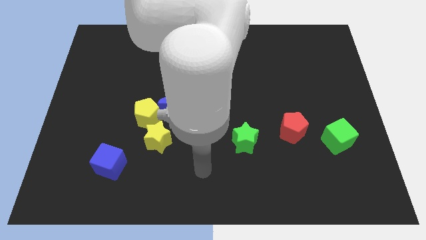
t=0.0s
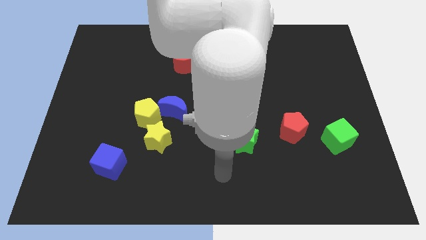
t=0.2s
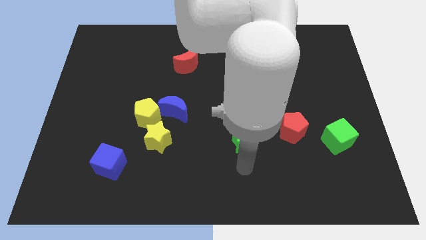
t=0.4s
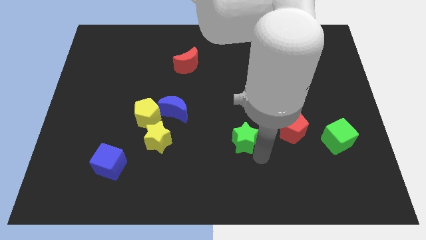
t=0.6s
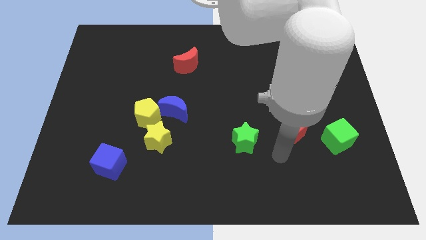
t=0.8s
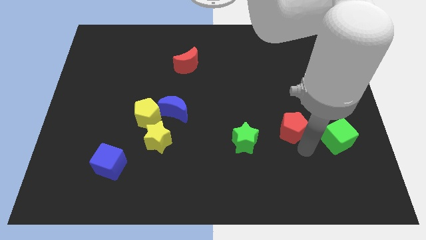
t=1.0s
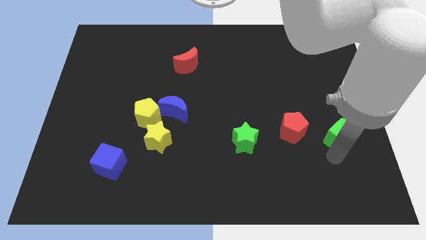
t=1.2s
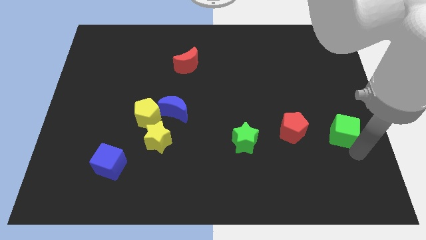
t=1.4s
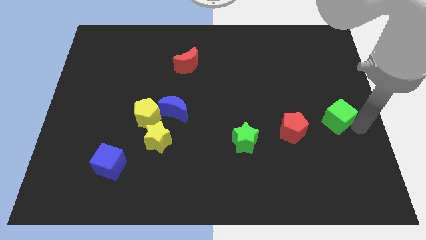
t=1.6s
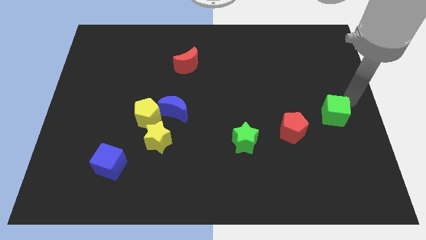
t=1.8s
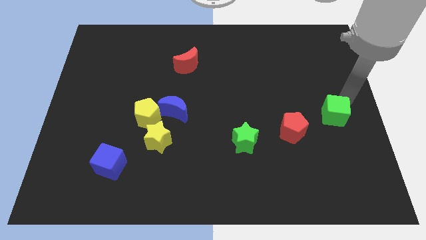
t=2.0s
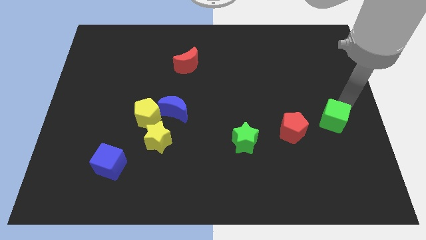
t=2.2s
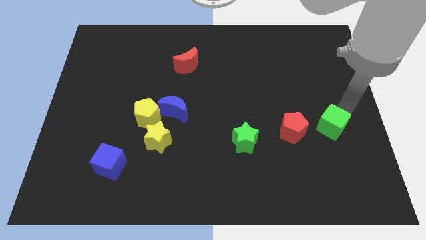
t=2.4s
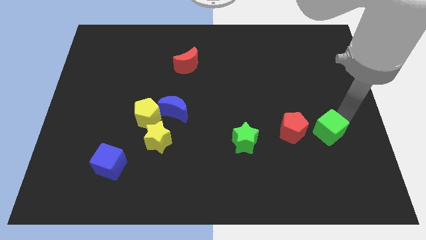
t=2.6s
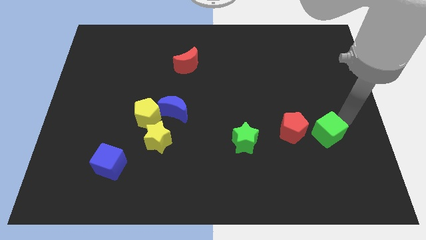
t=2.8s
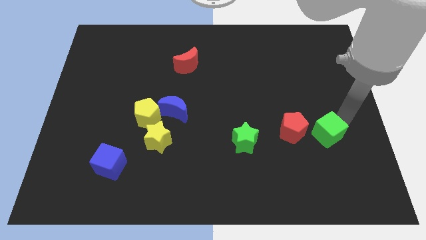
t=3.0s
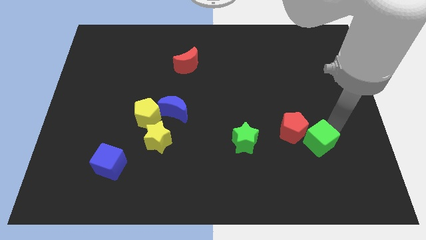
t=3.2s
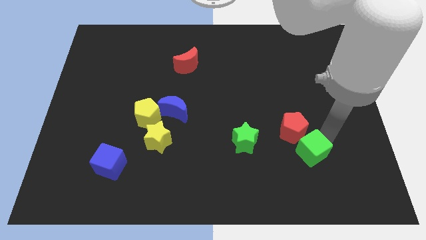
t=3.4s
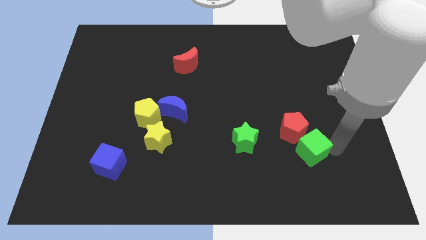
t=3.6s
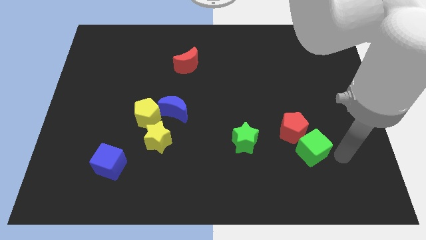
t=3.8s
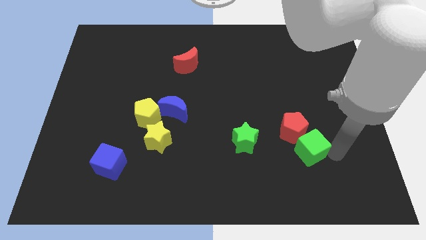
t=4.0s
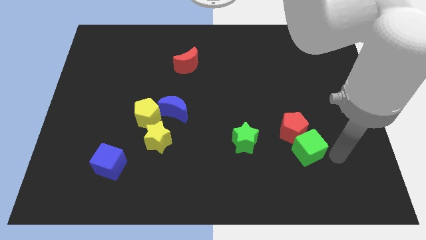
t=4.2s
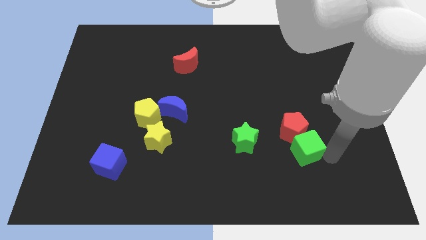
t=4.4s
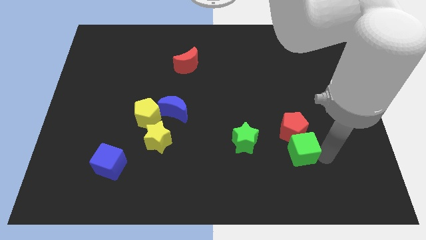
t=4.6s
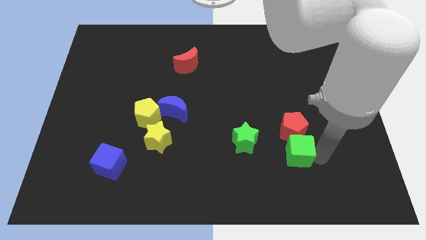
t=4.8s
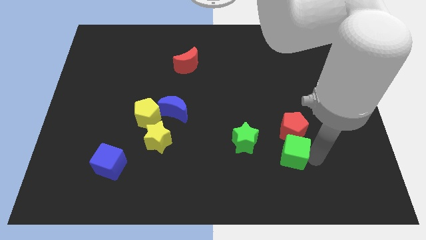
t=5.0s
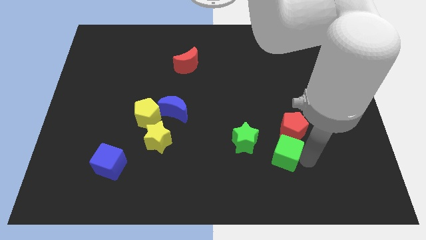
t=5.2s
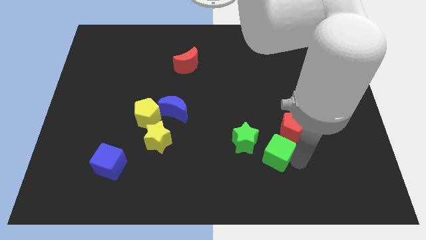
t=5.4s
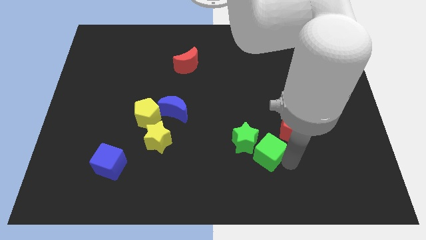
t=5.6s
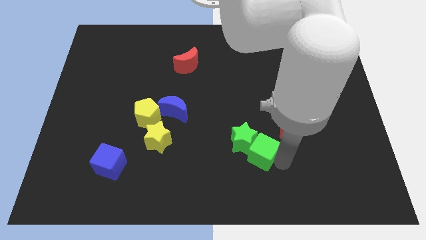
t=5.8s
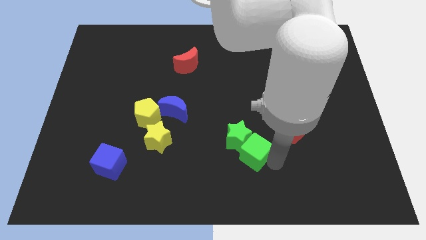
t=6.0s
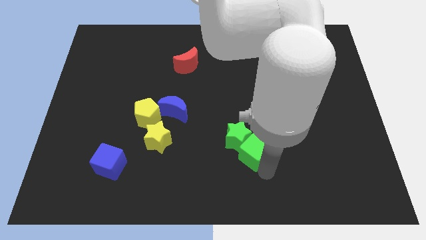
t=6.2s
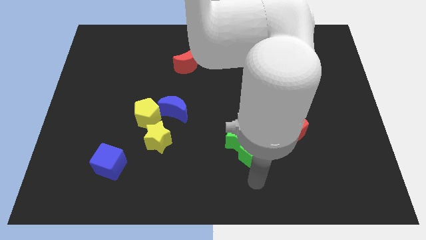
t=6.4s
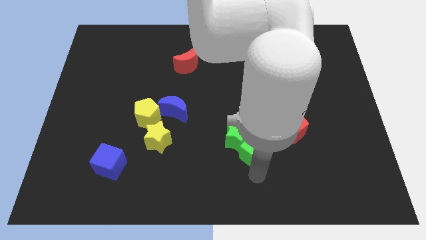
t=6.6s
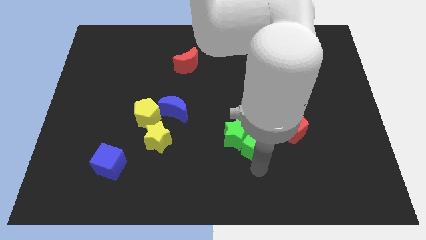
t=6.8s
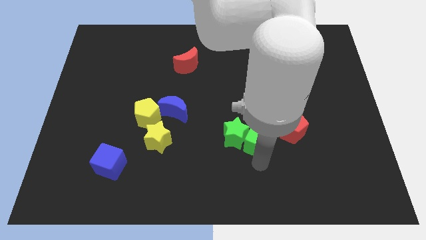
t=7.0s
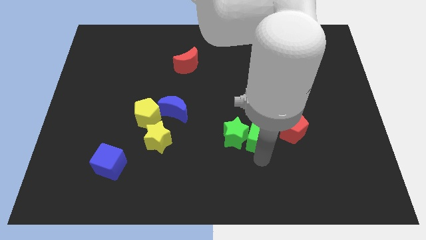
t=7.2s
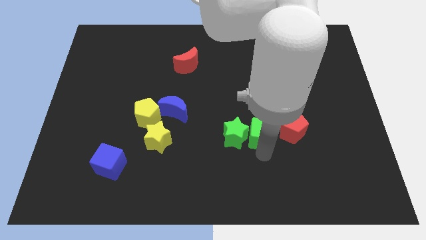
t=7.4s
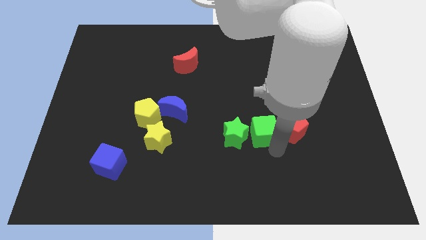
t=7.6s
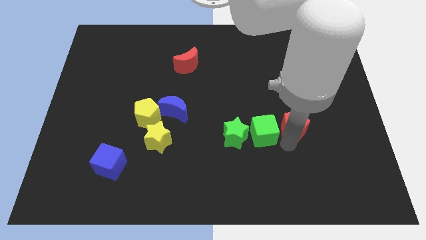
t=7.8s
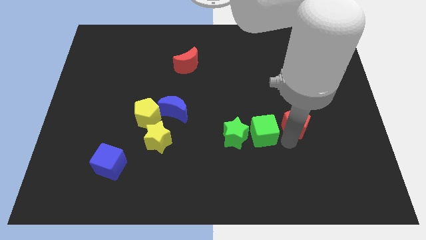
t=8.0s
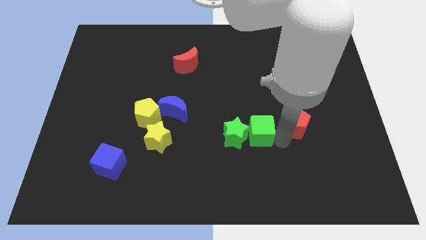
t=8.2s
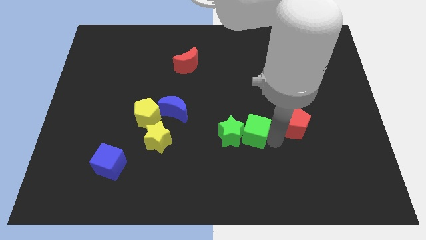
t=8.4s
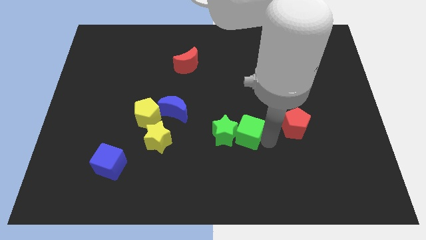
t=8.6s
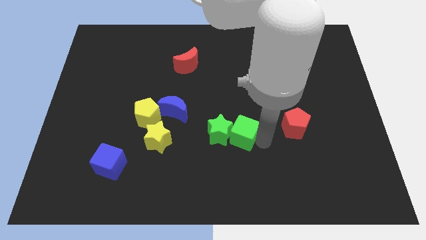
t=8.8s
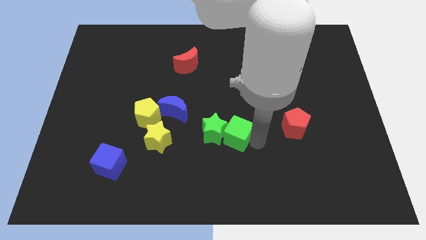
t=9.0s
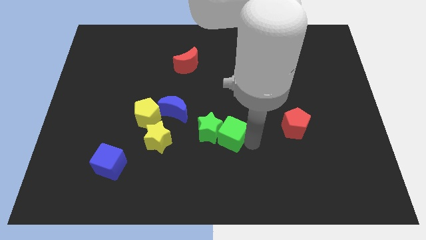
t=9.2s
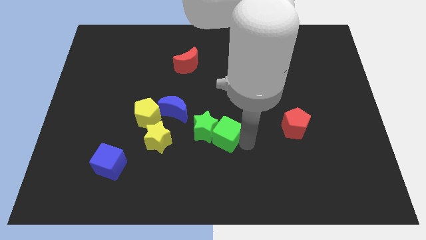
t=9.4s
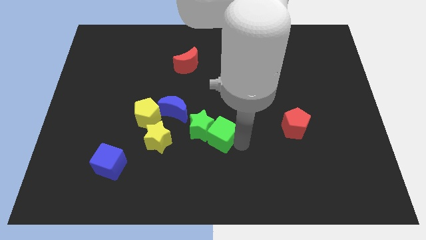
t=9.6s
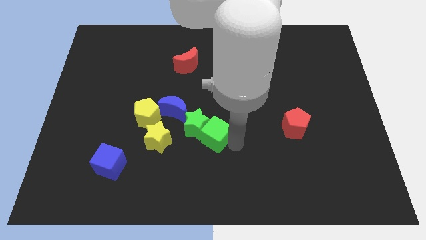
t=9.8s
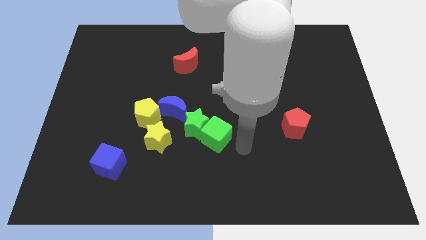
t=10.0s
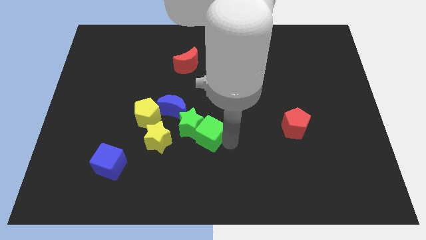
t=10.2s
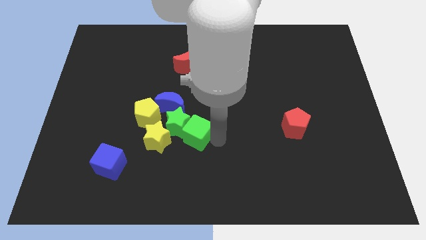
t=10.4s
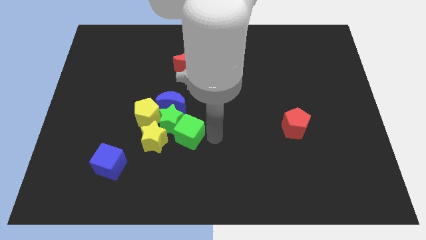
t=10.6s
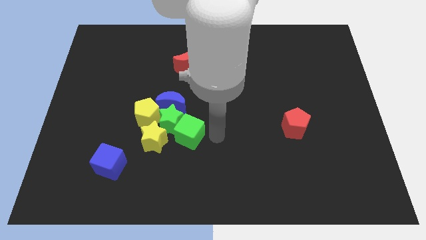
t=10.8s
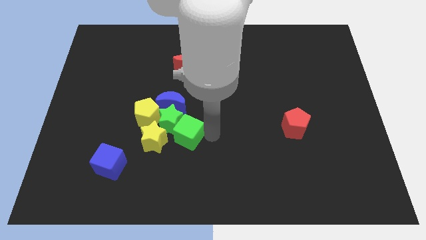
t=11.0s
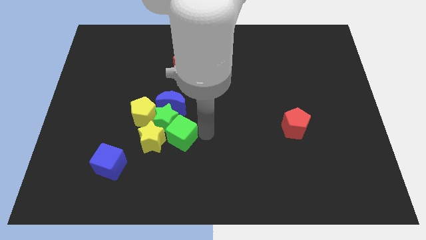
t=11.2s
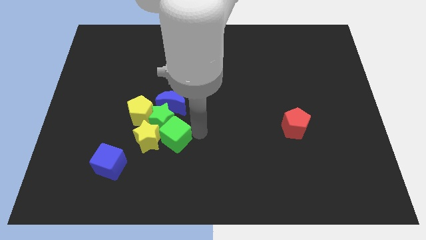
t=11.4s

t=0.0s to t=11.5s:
put the green cube to the yellow star

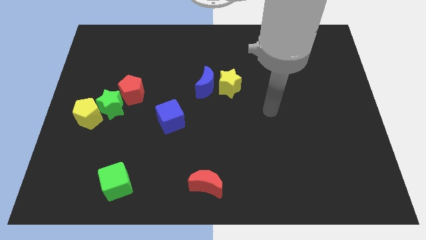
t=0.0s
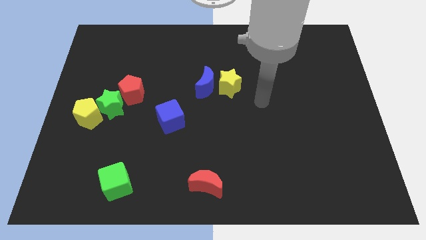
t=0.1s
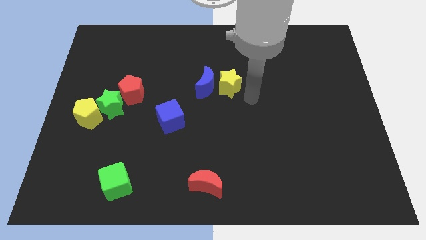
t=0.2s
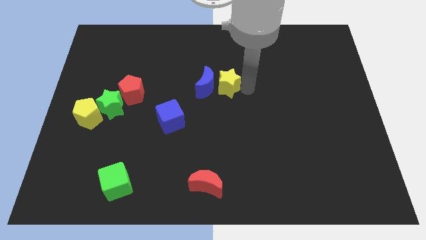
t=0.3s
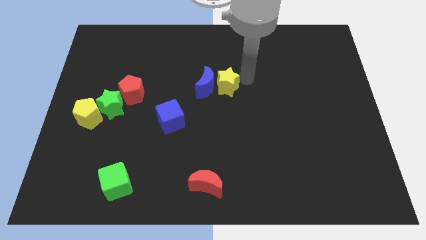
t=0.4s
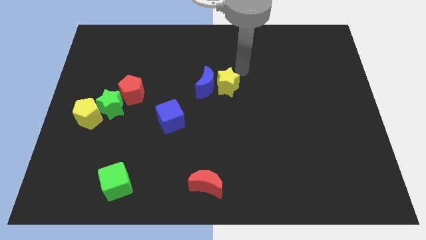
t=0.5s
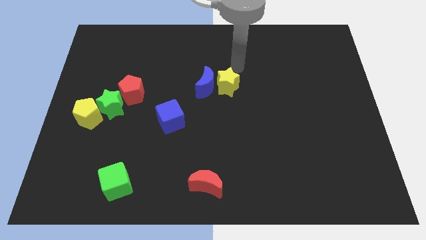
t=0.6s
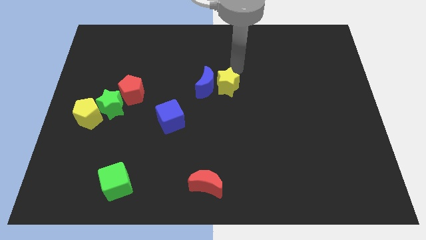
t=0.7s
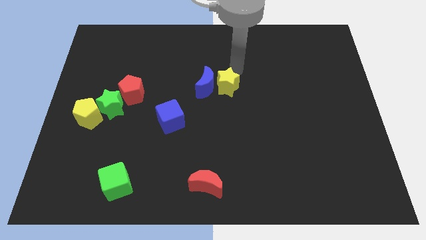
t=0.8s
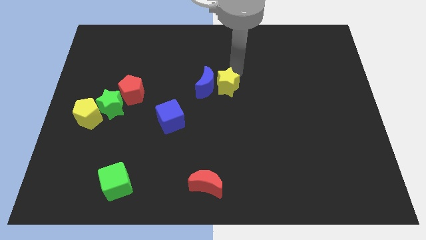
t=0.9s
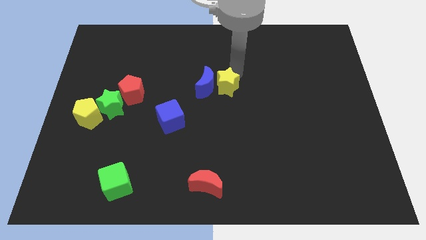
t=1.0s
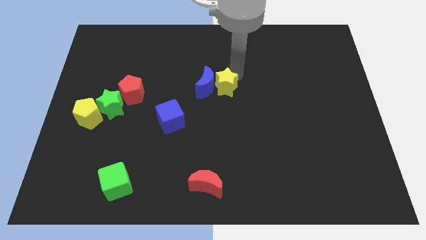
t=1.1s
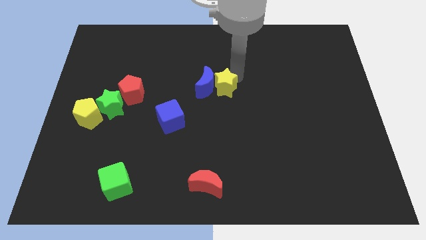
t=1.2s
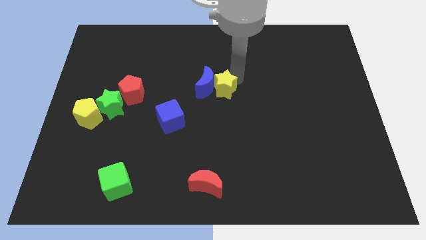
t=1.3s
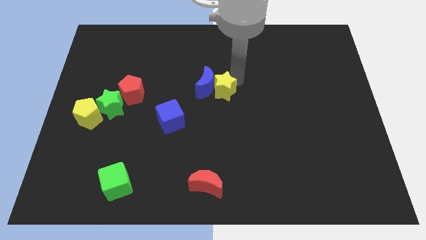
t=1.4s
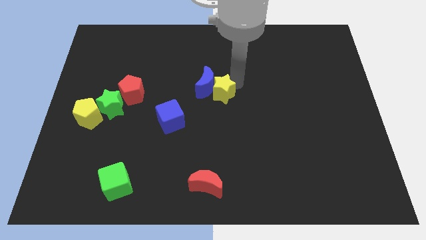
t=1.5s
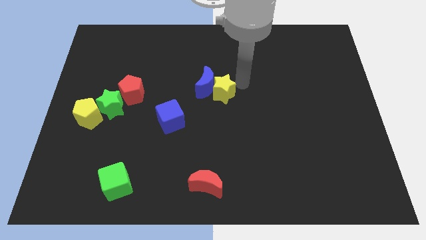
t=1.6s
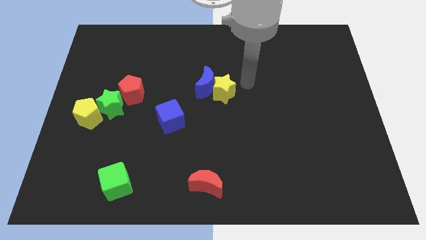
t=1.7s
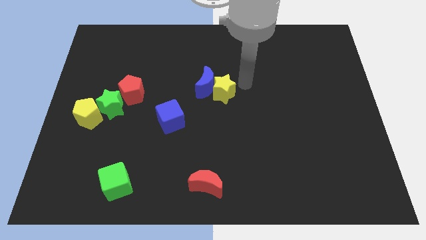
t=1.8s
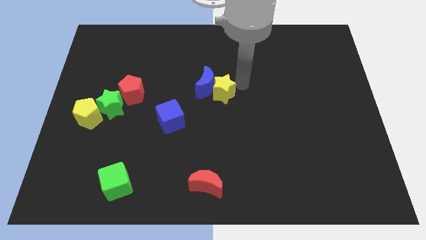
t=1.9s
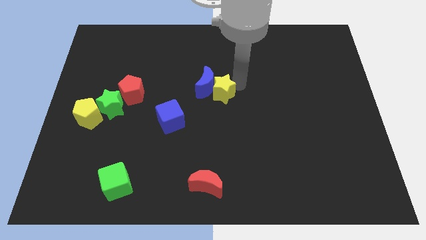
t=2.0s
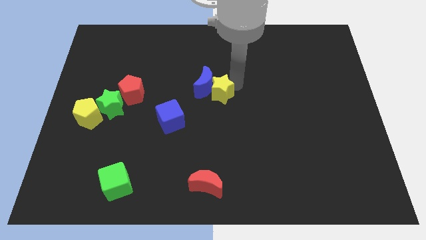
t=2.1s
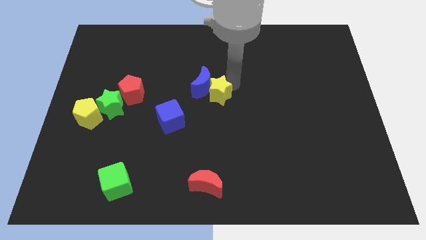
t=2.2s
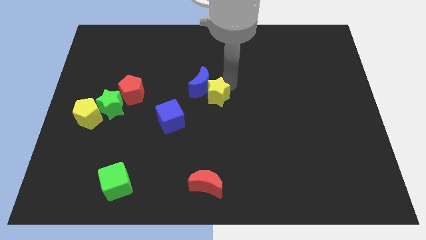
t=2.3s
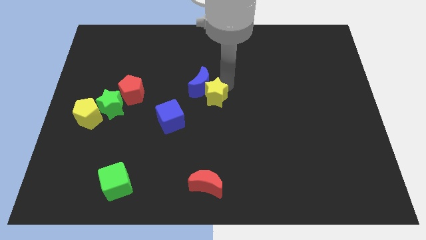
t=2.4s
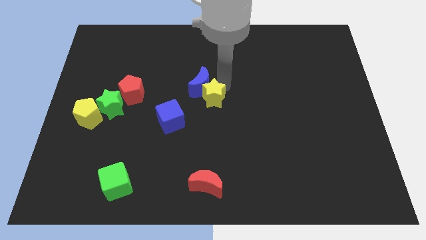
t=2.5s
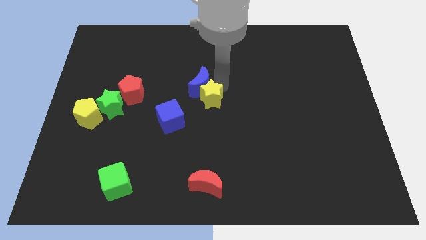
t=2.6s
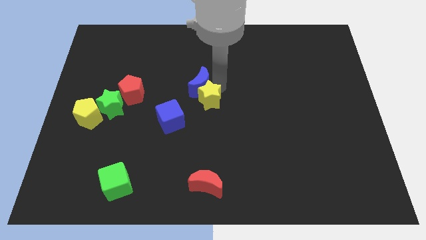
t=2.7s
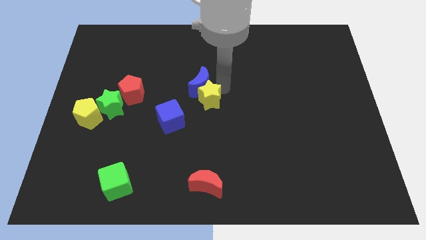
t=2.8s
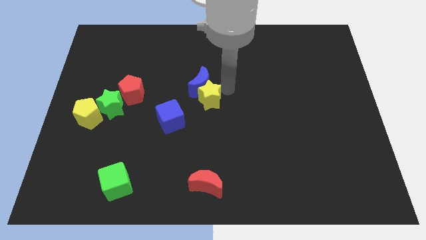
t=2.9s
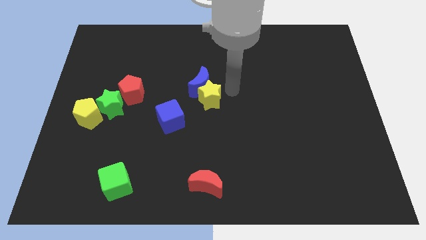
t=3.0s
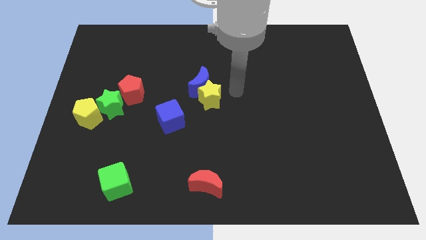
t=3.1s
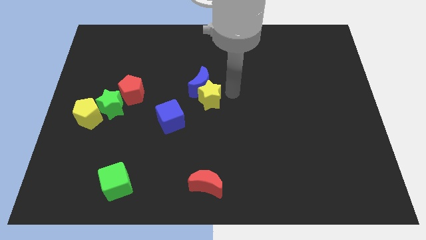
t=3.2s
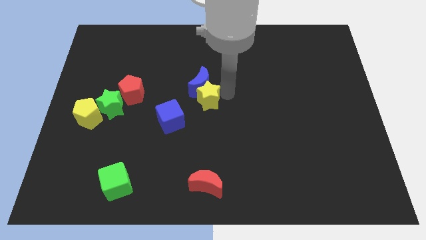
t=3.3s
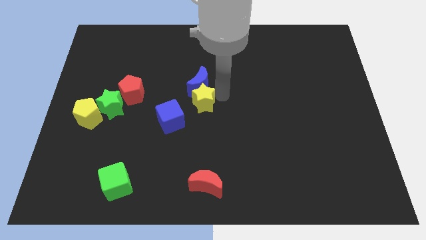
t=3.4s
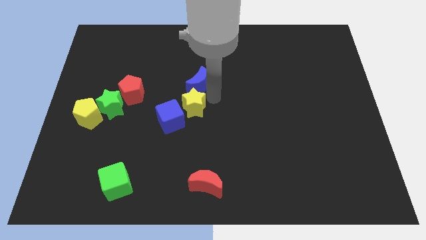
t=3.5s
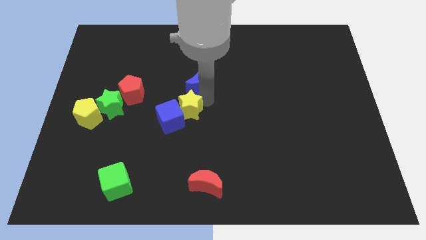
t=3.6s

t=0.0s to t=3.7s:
move the yellow star next to the blue cube
